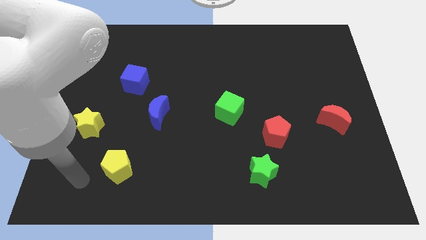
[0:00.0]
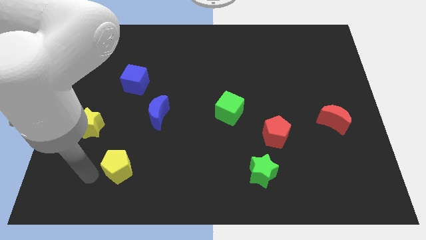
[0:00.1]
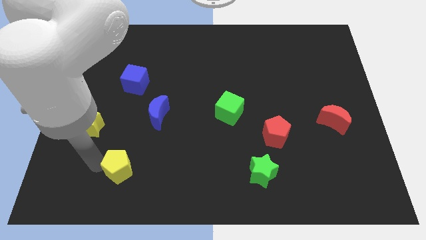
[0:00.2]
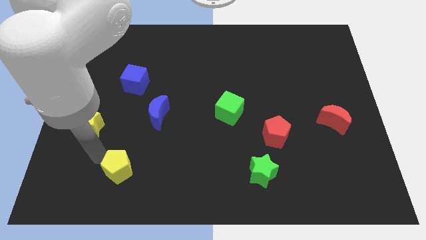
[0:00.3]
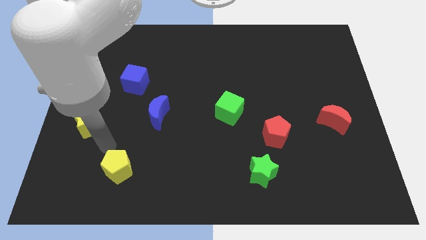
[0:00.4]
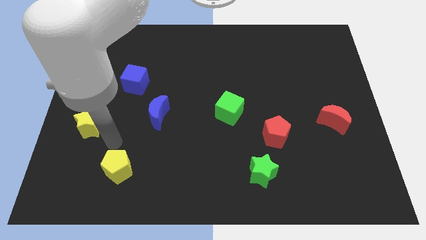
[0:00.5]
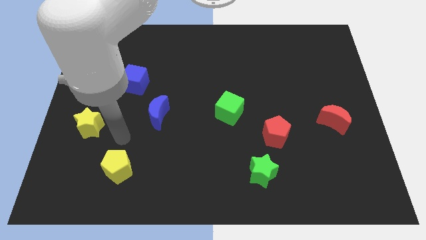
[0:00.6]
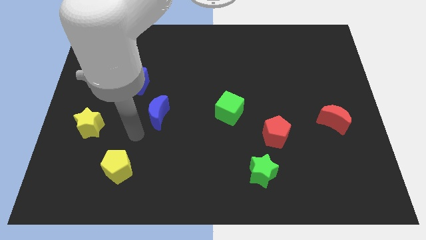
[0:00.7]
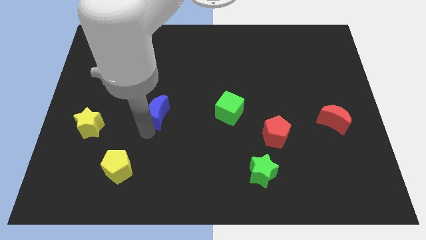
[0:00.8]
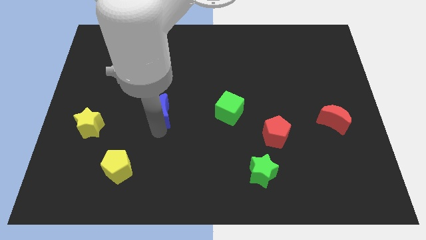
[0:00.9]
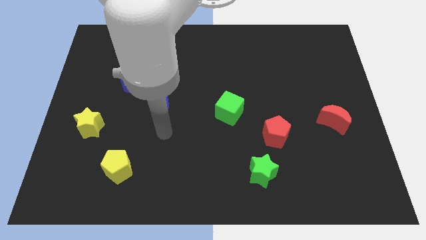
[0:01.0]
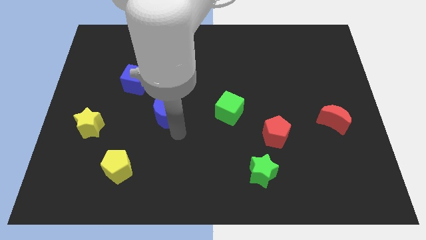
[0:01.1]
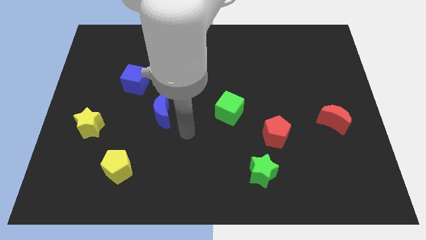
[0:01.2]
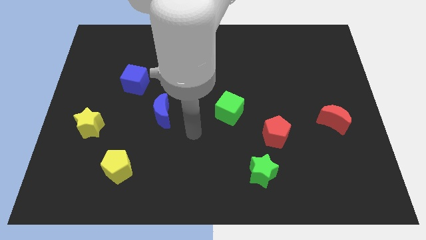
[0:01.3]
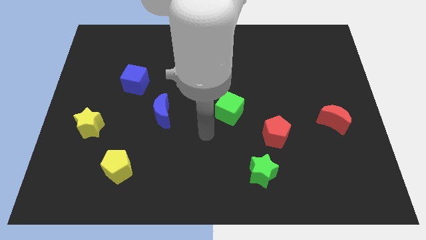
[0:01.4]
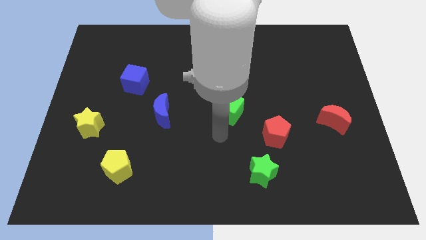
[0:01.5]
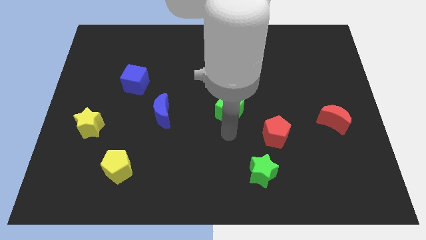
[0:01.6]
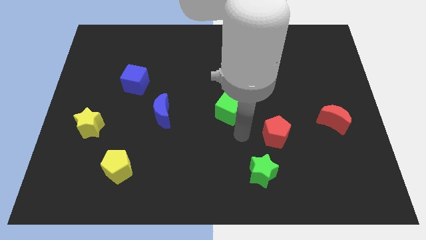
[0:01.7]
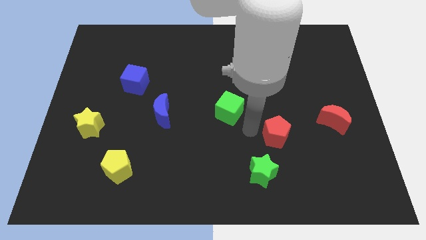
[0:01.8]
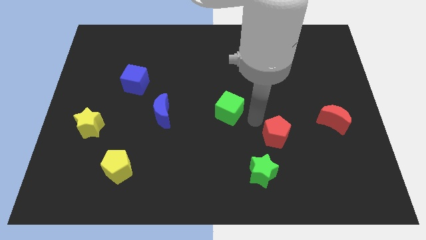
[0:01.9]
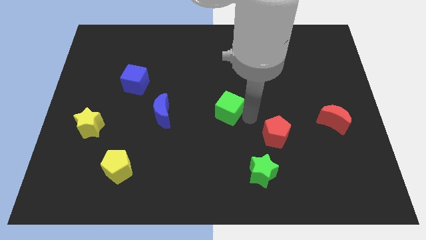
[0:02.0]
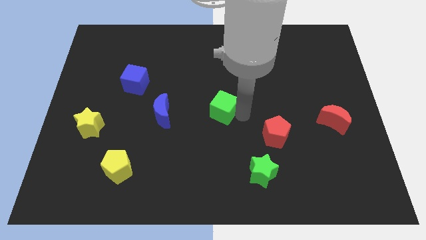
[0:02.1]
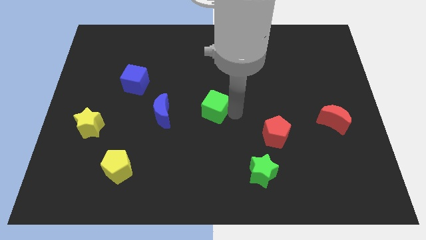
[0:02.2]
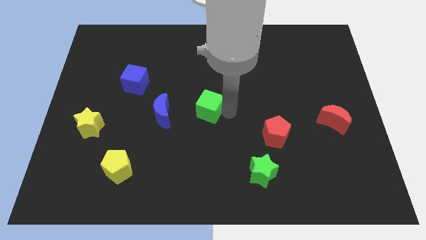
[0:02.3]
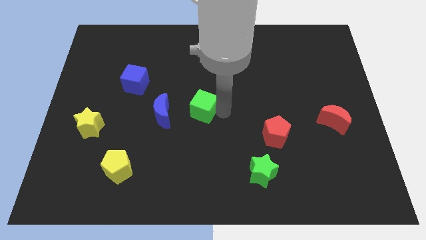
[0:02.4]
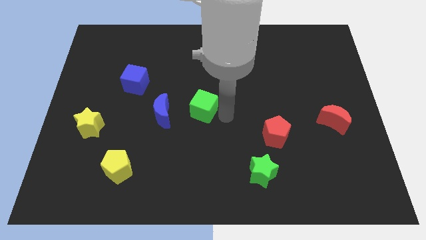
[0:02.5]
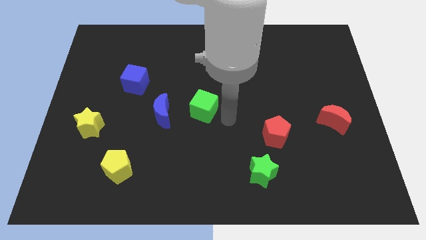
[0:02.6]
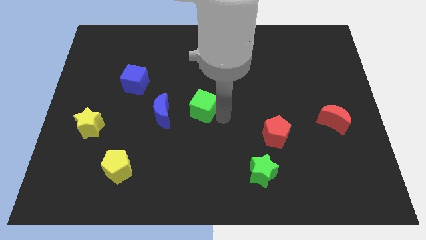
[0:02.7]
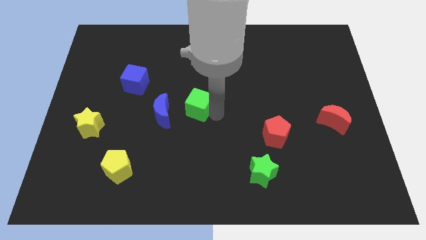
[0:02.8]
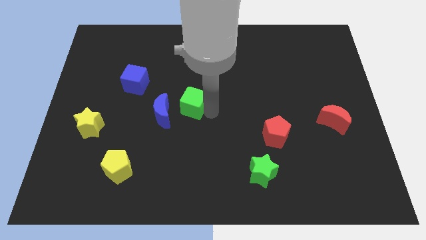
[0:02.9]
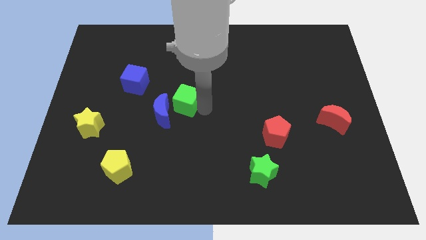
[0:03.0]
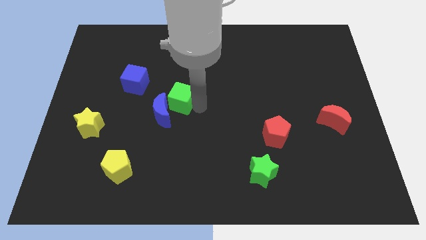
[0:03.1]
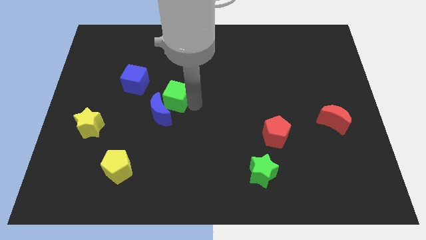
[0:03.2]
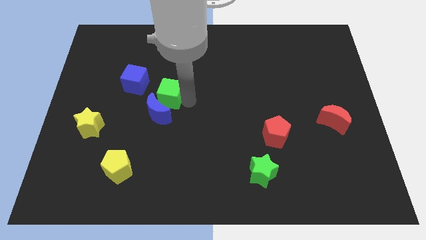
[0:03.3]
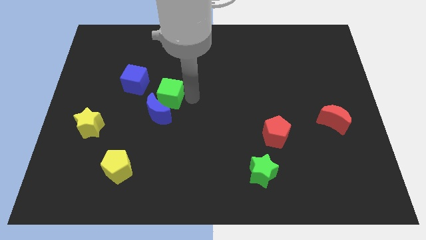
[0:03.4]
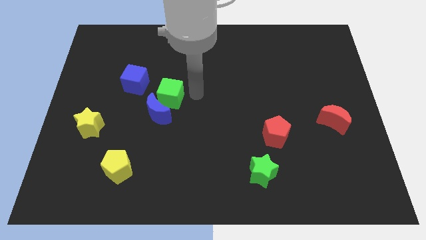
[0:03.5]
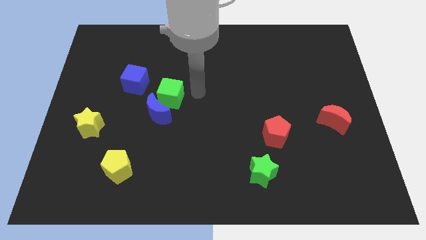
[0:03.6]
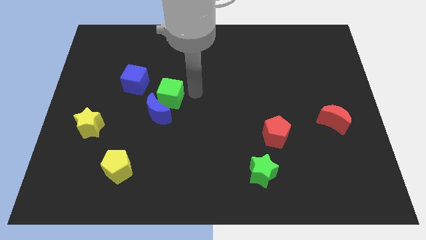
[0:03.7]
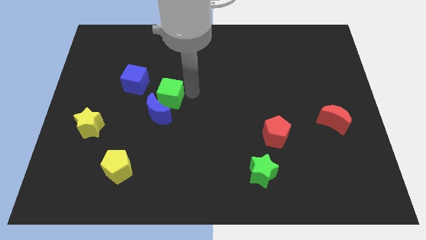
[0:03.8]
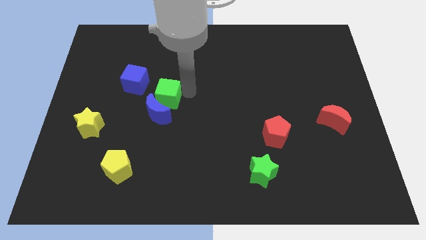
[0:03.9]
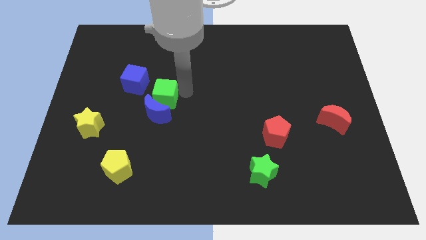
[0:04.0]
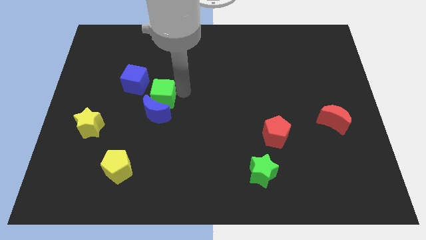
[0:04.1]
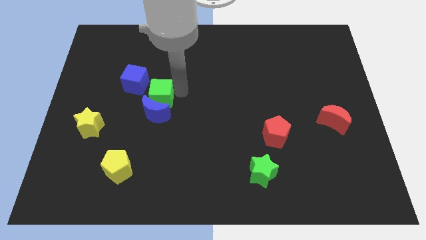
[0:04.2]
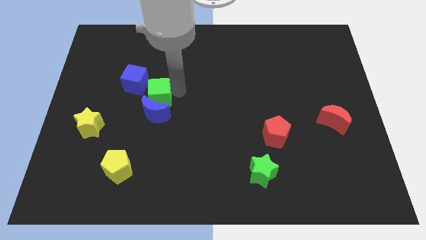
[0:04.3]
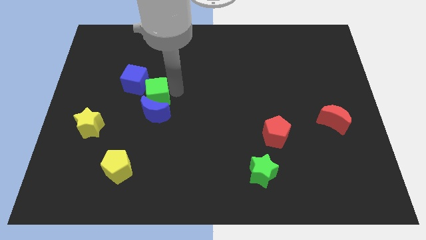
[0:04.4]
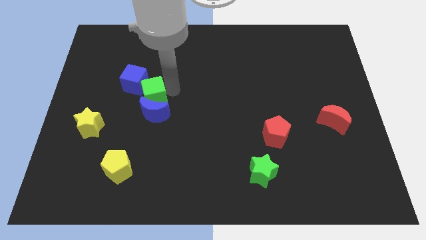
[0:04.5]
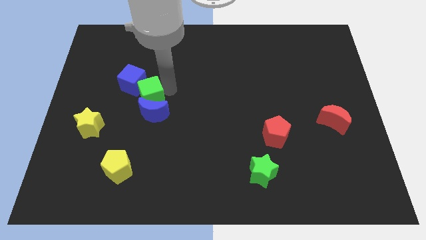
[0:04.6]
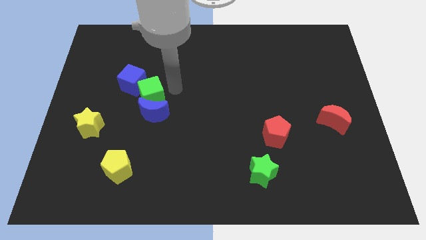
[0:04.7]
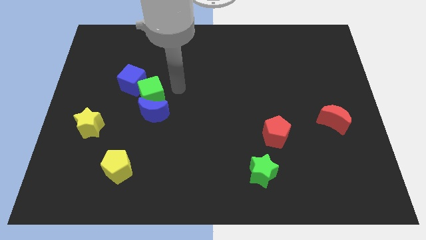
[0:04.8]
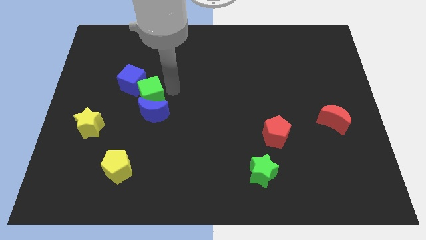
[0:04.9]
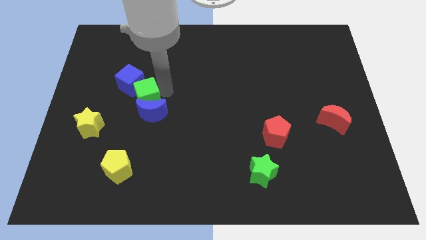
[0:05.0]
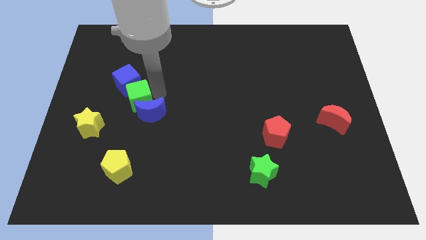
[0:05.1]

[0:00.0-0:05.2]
move the green cube to the left

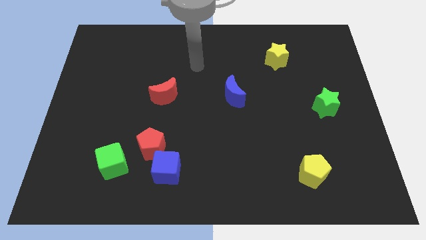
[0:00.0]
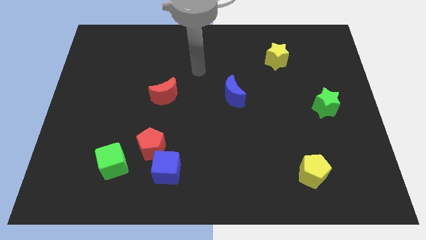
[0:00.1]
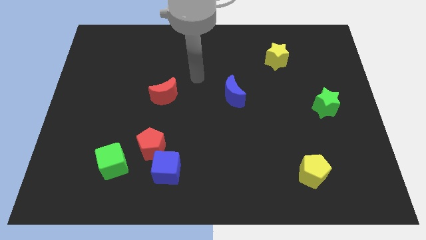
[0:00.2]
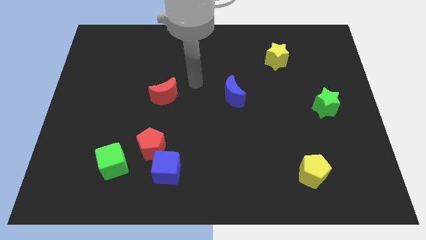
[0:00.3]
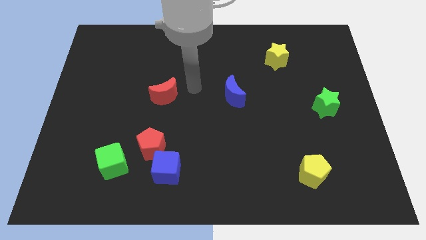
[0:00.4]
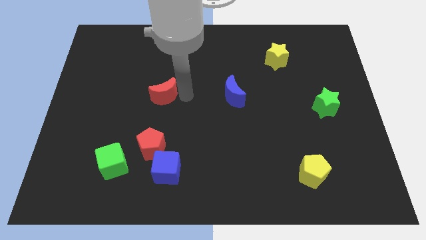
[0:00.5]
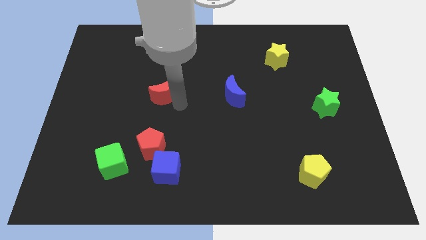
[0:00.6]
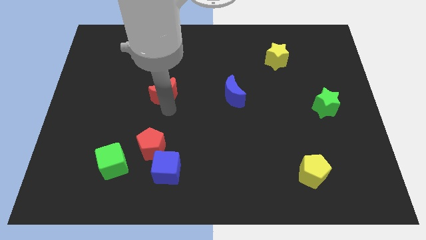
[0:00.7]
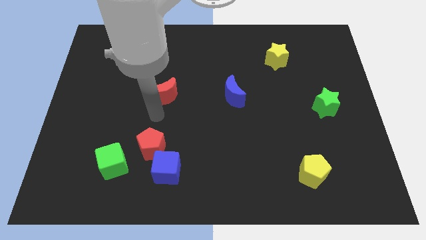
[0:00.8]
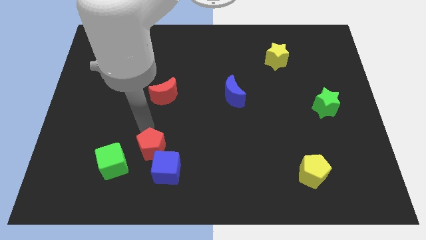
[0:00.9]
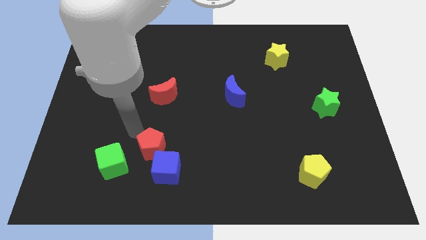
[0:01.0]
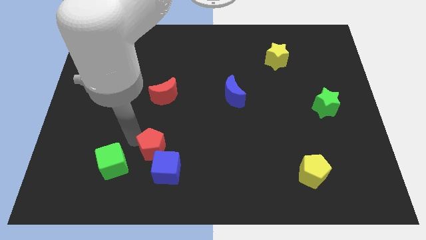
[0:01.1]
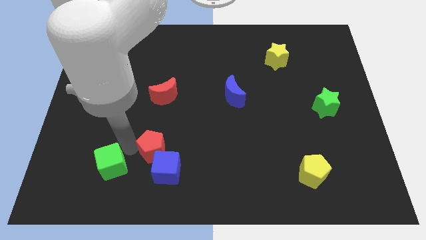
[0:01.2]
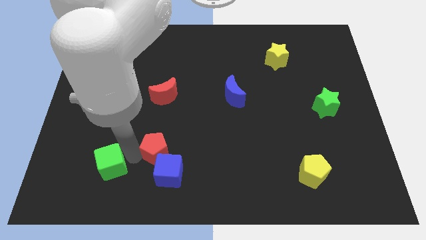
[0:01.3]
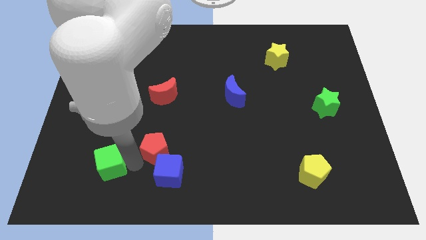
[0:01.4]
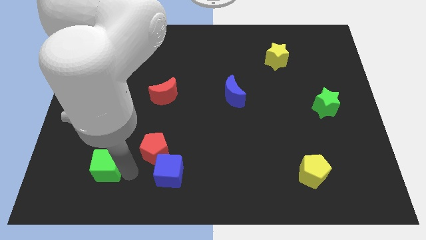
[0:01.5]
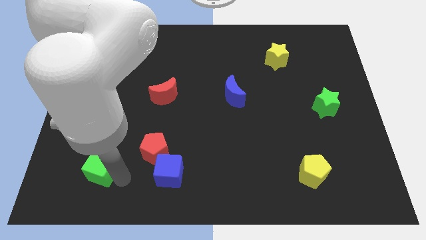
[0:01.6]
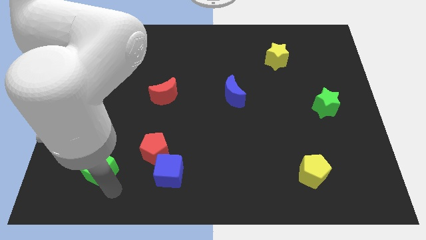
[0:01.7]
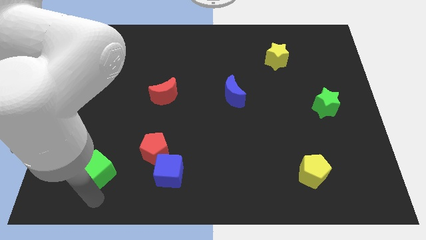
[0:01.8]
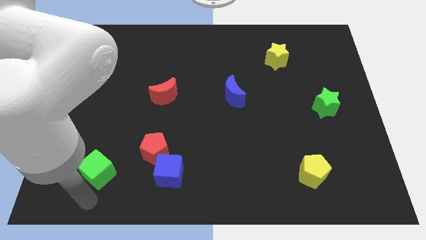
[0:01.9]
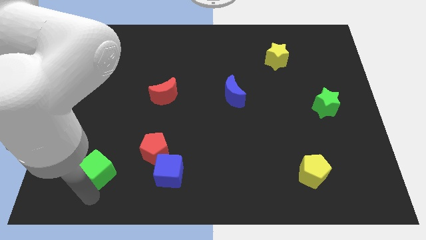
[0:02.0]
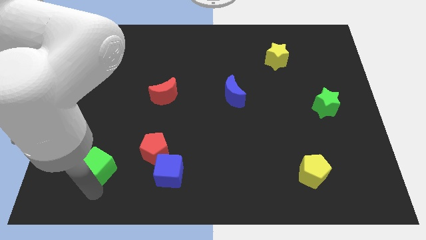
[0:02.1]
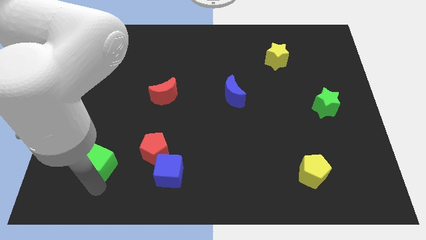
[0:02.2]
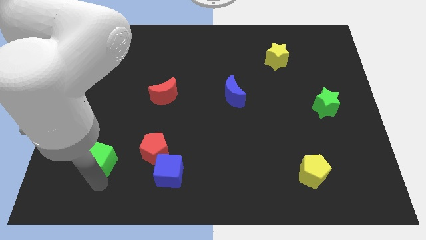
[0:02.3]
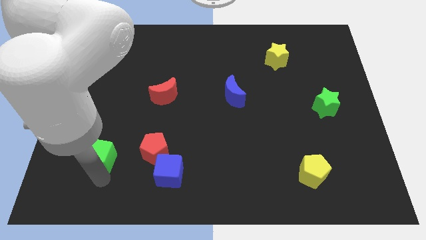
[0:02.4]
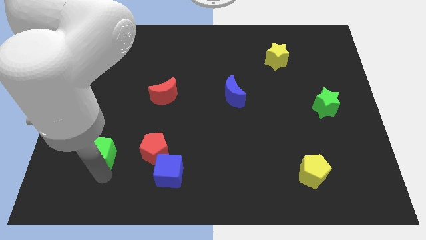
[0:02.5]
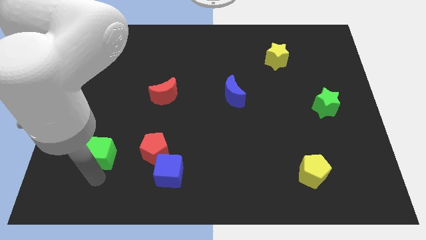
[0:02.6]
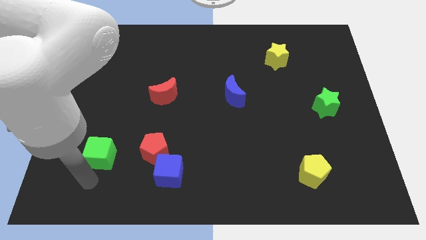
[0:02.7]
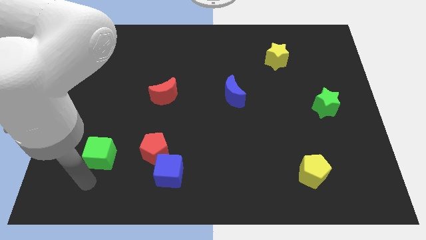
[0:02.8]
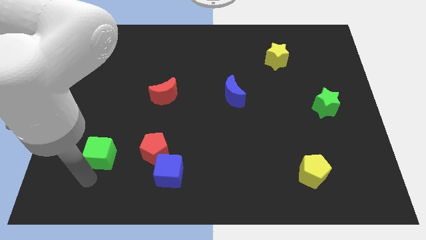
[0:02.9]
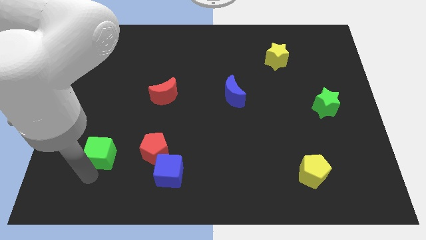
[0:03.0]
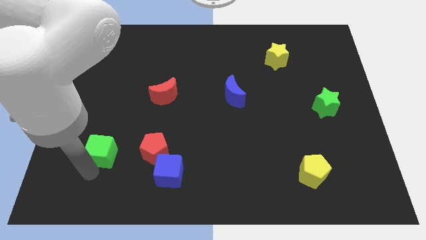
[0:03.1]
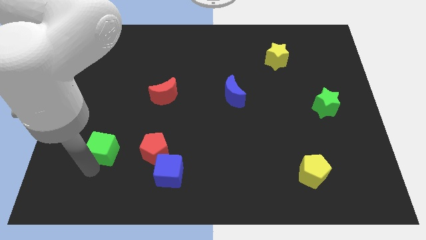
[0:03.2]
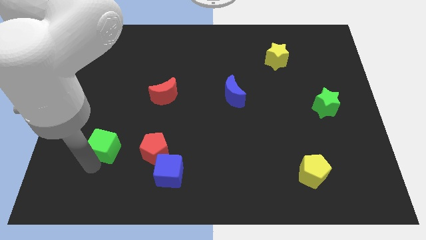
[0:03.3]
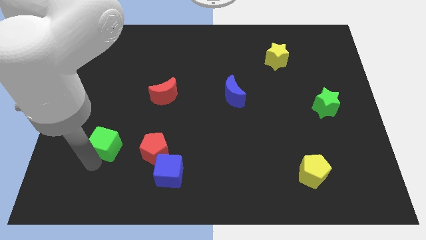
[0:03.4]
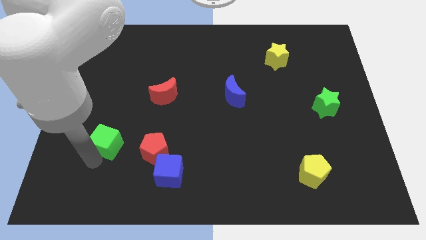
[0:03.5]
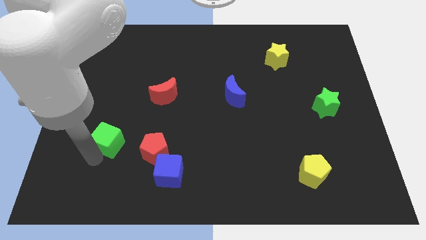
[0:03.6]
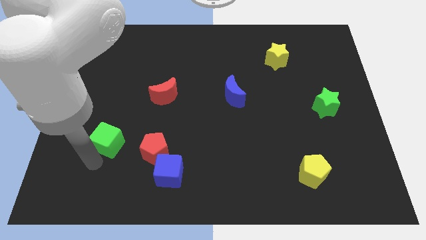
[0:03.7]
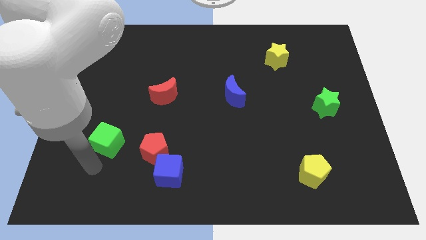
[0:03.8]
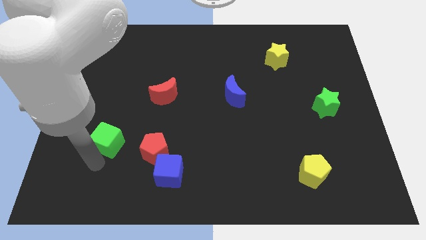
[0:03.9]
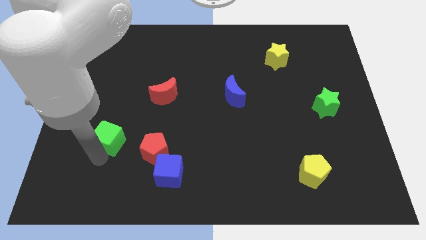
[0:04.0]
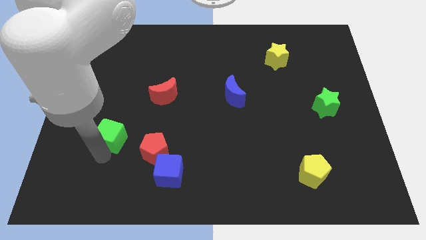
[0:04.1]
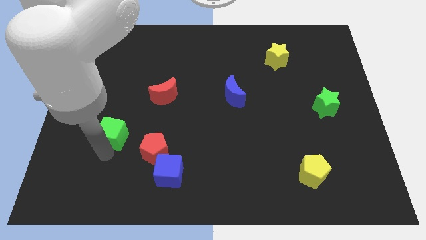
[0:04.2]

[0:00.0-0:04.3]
slightly slide the green cube up
